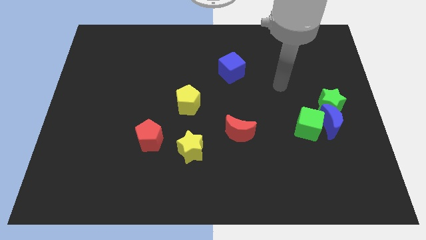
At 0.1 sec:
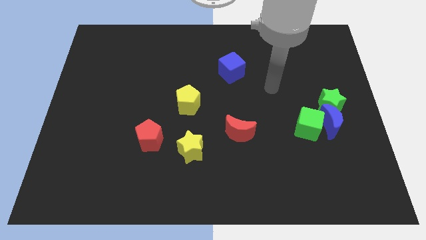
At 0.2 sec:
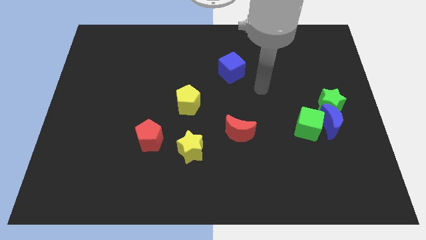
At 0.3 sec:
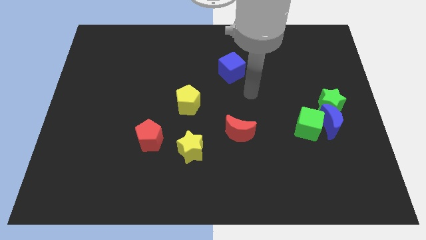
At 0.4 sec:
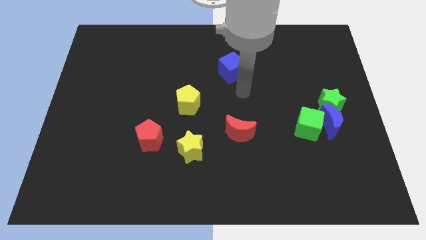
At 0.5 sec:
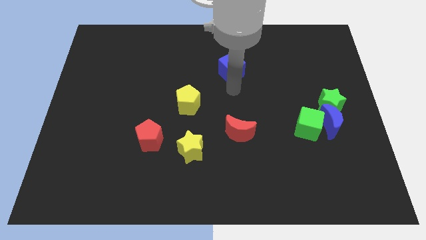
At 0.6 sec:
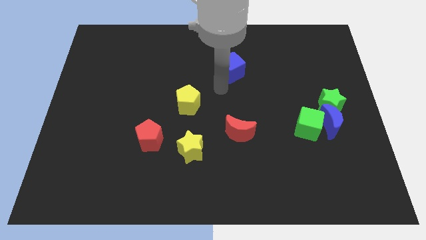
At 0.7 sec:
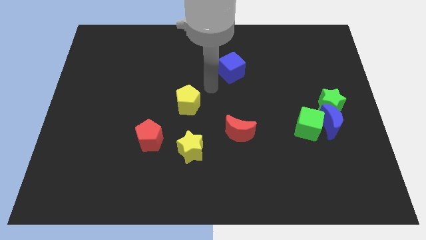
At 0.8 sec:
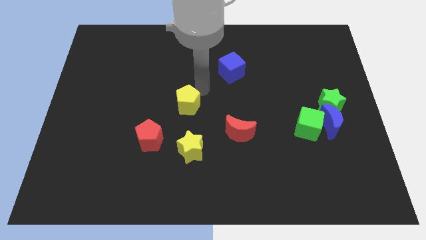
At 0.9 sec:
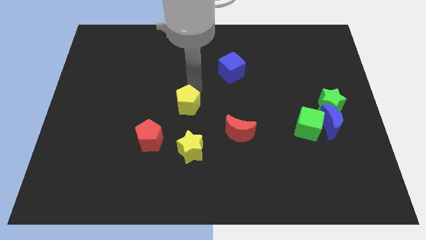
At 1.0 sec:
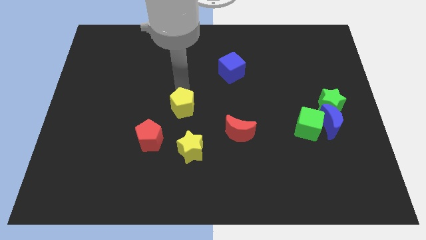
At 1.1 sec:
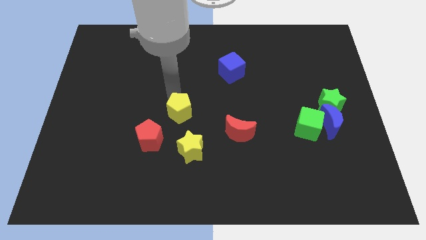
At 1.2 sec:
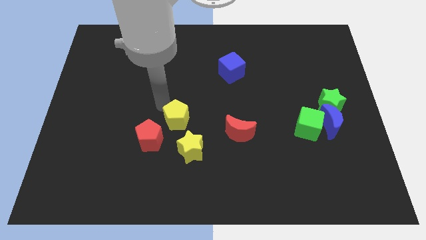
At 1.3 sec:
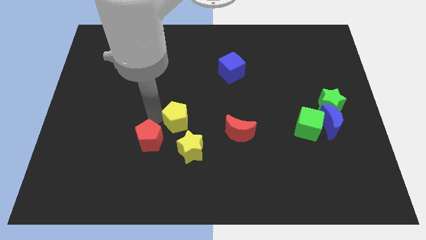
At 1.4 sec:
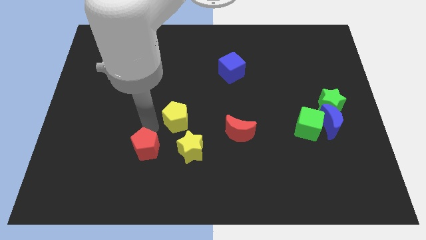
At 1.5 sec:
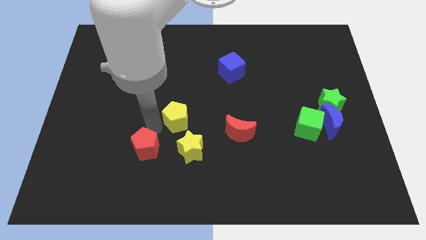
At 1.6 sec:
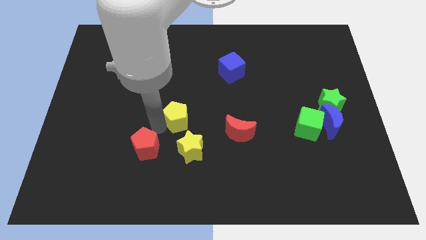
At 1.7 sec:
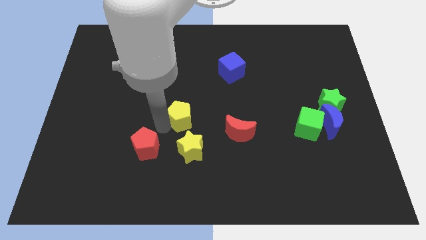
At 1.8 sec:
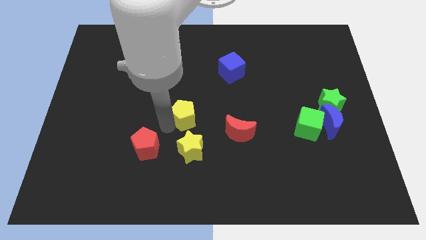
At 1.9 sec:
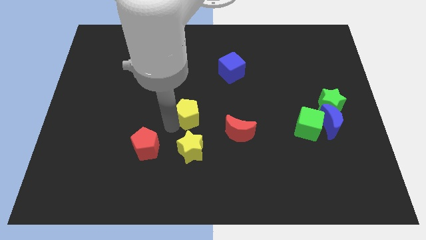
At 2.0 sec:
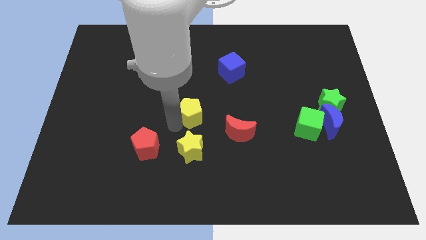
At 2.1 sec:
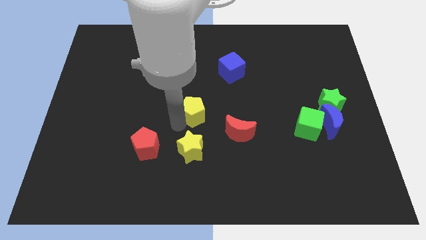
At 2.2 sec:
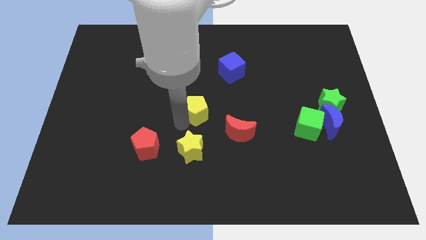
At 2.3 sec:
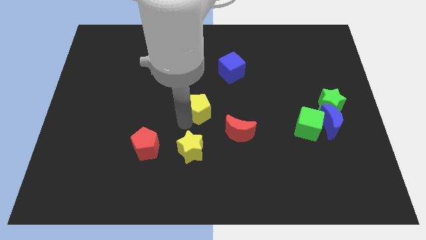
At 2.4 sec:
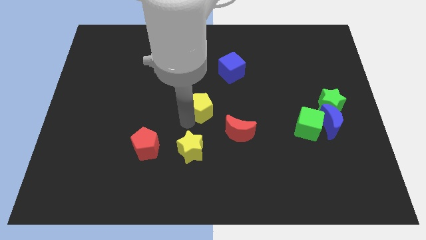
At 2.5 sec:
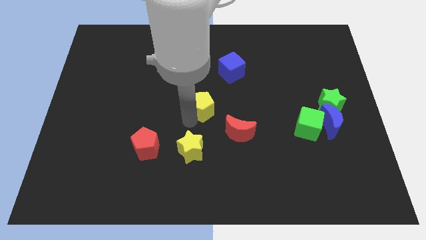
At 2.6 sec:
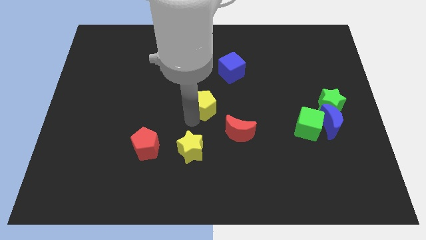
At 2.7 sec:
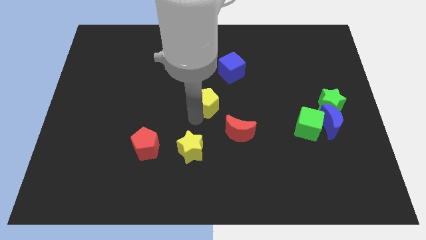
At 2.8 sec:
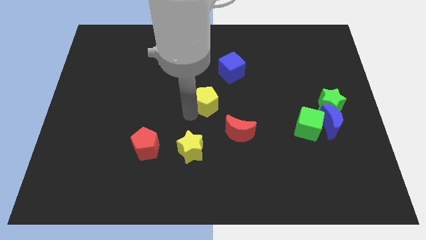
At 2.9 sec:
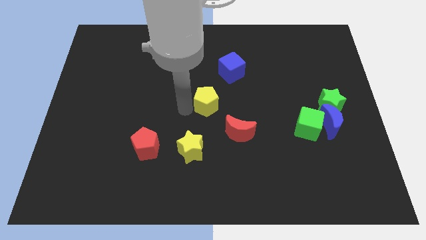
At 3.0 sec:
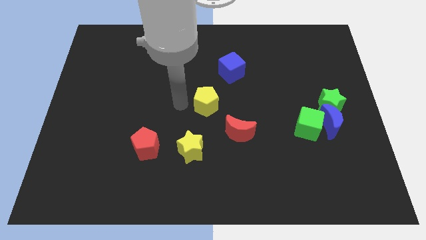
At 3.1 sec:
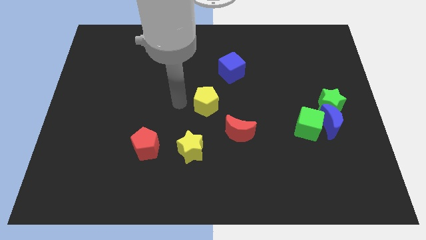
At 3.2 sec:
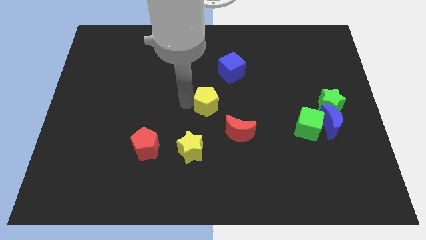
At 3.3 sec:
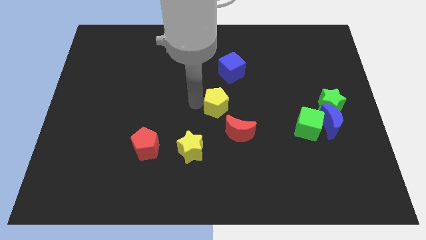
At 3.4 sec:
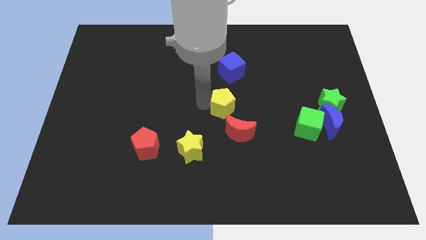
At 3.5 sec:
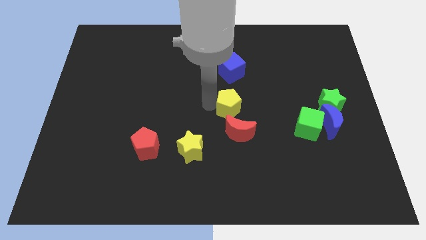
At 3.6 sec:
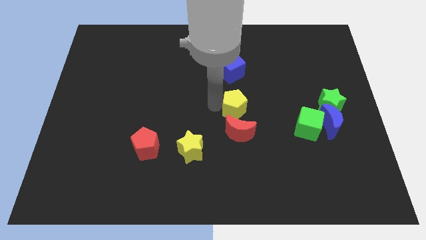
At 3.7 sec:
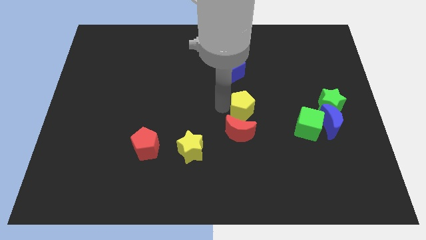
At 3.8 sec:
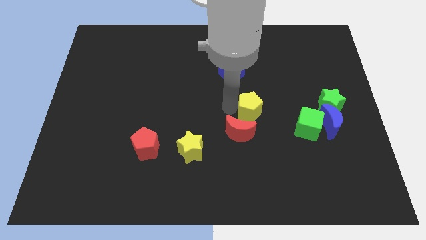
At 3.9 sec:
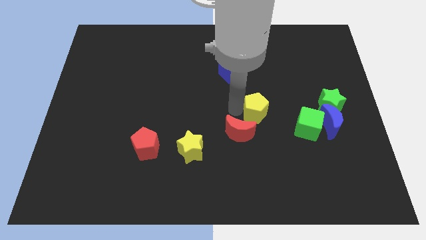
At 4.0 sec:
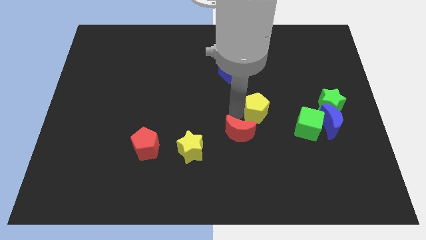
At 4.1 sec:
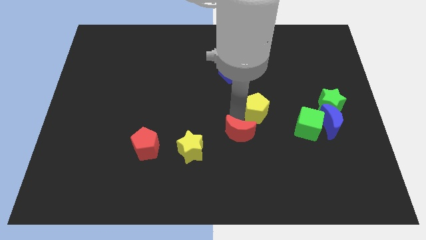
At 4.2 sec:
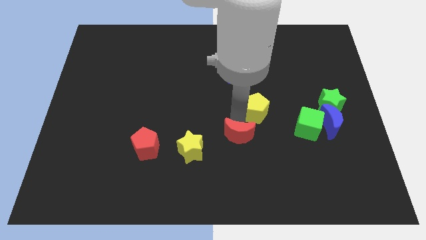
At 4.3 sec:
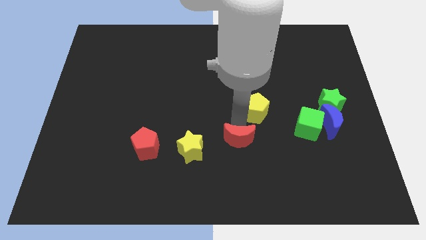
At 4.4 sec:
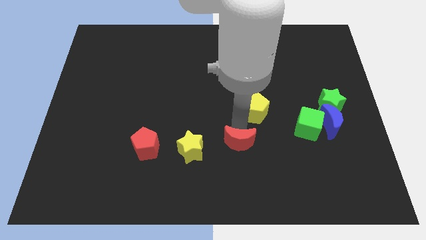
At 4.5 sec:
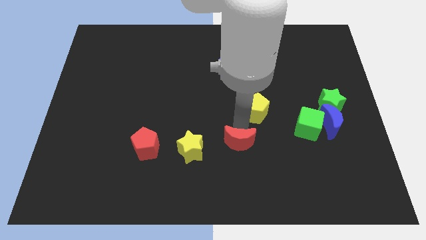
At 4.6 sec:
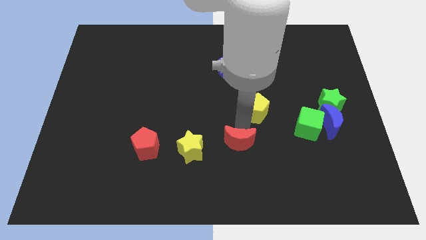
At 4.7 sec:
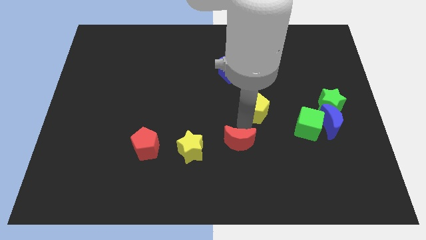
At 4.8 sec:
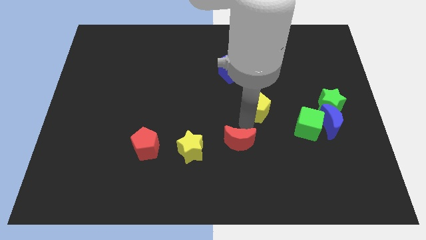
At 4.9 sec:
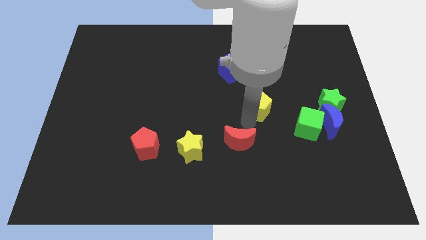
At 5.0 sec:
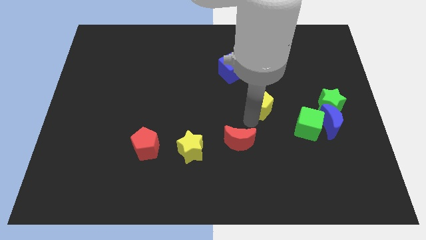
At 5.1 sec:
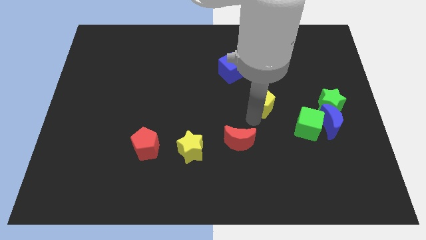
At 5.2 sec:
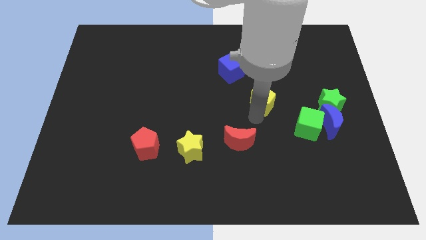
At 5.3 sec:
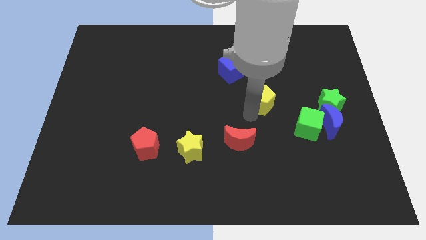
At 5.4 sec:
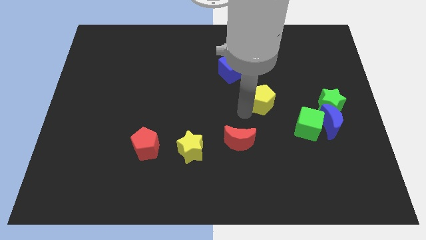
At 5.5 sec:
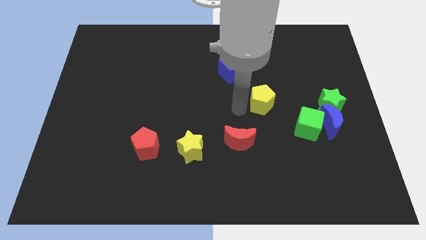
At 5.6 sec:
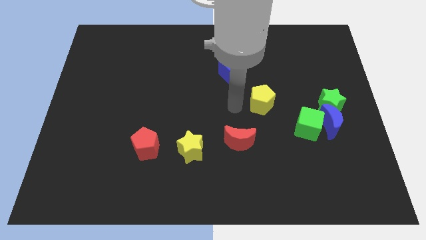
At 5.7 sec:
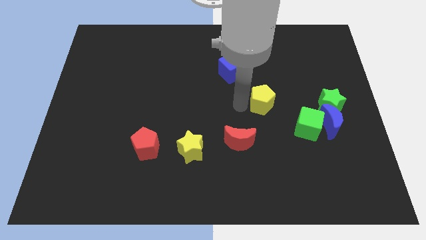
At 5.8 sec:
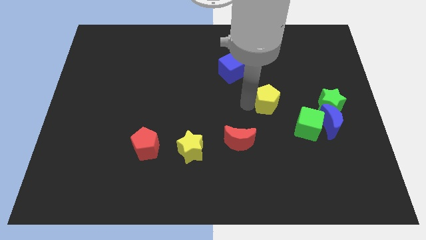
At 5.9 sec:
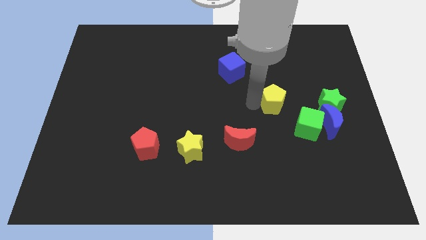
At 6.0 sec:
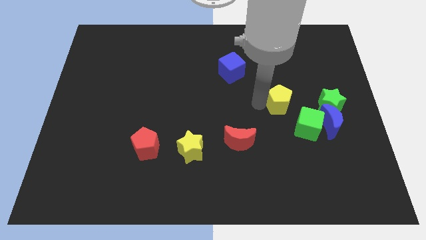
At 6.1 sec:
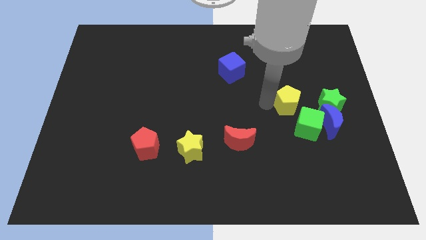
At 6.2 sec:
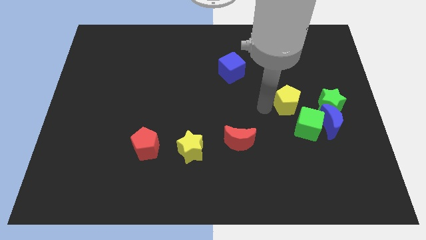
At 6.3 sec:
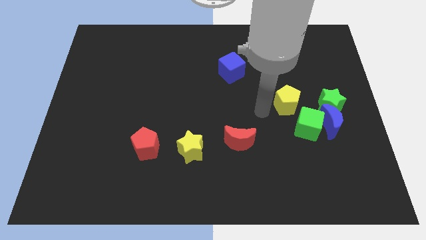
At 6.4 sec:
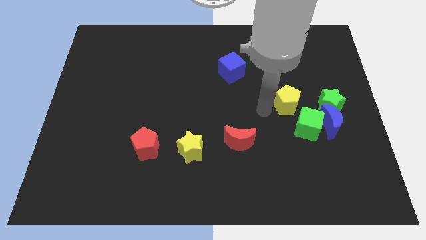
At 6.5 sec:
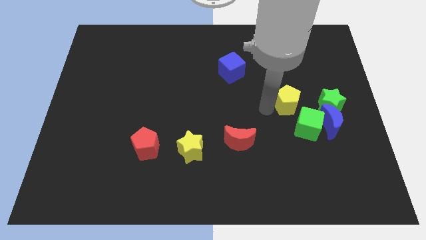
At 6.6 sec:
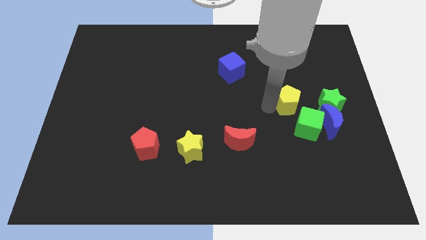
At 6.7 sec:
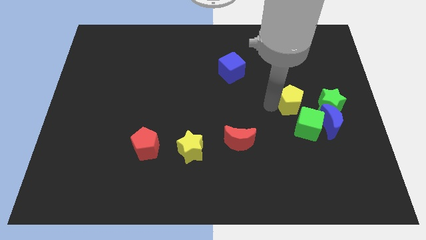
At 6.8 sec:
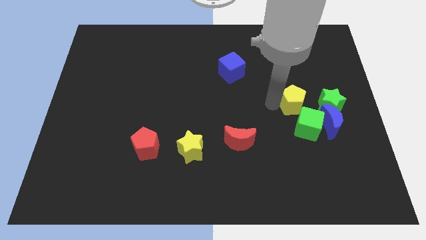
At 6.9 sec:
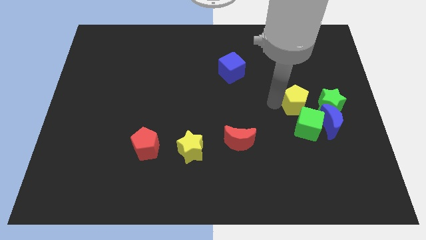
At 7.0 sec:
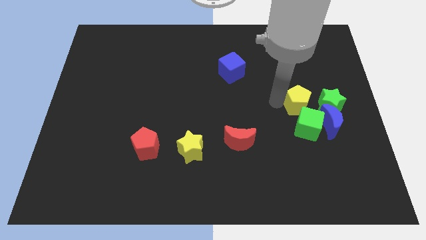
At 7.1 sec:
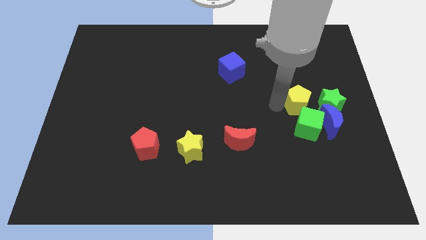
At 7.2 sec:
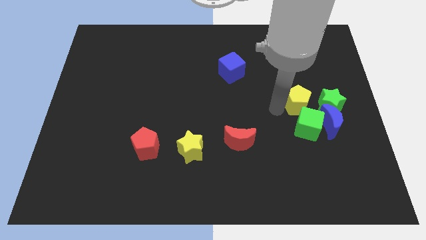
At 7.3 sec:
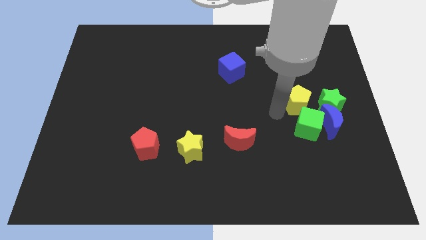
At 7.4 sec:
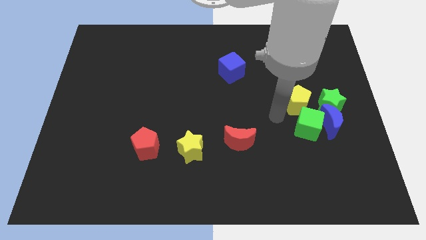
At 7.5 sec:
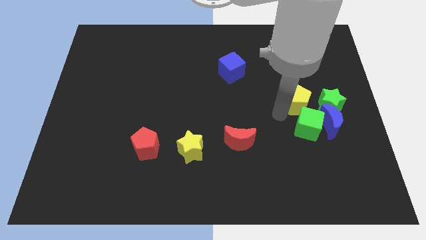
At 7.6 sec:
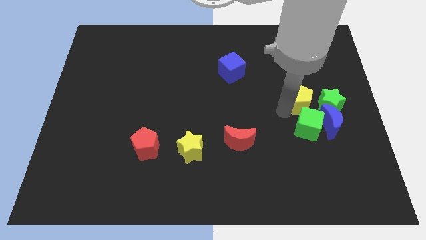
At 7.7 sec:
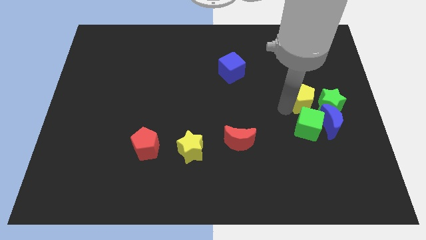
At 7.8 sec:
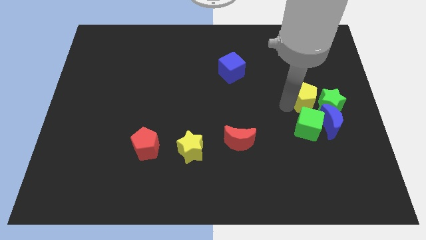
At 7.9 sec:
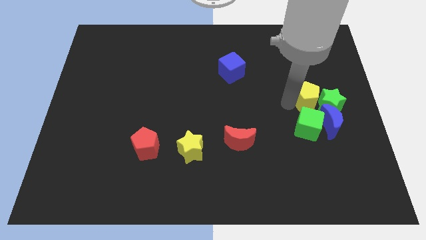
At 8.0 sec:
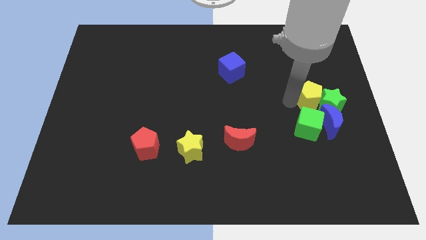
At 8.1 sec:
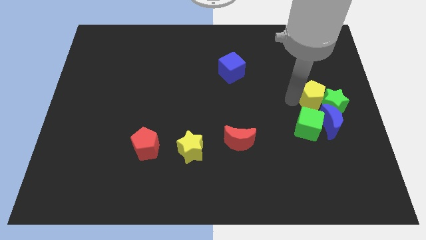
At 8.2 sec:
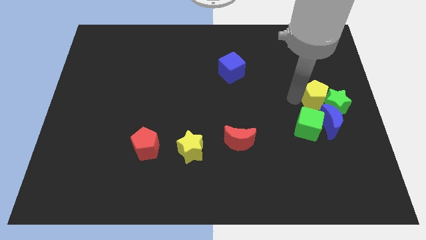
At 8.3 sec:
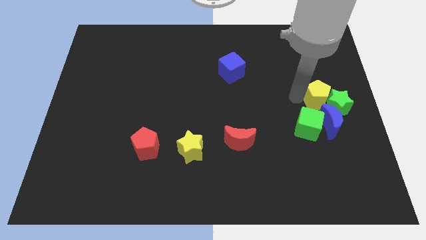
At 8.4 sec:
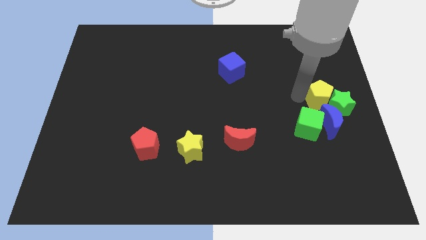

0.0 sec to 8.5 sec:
move the yellow pentagon to the right side
